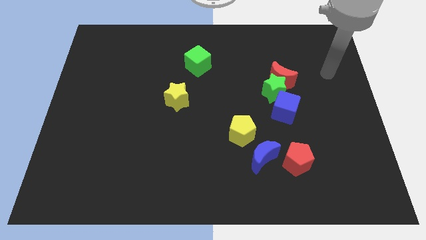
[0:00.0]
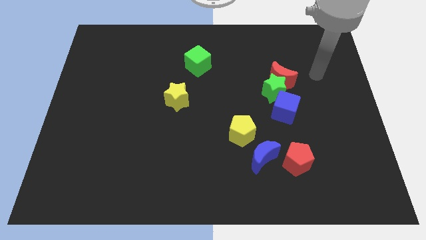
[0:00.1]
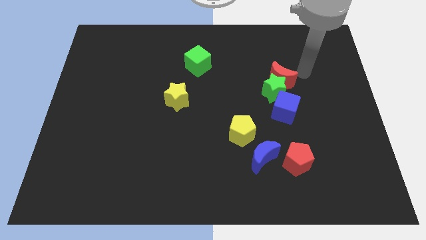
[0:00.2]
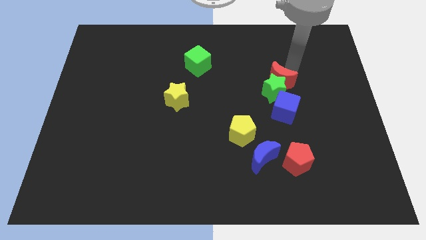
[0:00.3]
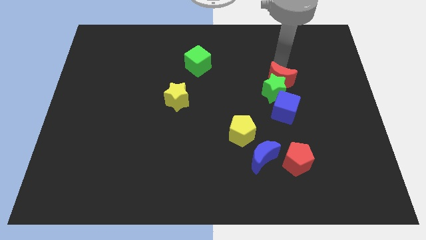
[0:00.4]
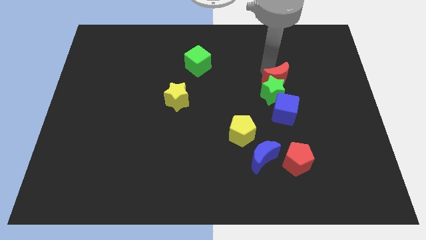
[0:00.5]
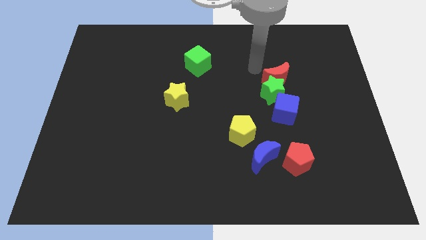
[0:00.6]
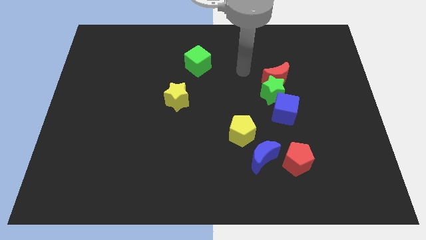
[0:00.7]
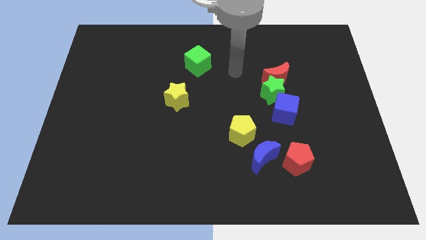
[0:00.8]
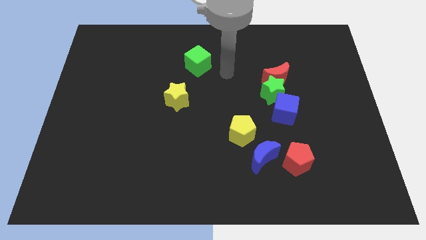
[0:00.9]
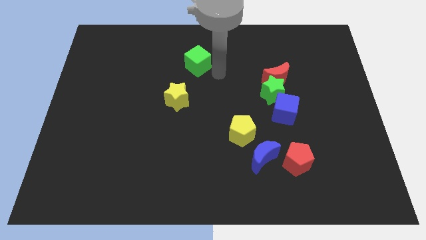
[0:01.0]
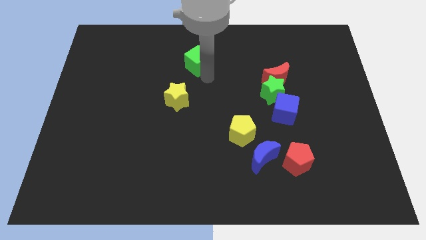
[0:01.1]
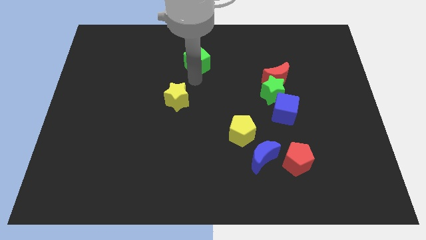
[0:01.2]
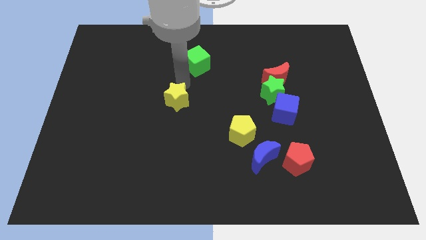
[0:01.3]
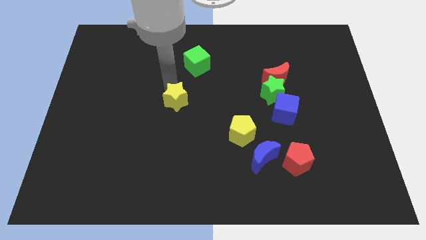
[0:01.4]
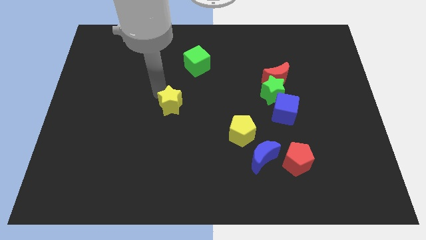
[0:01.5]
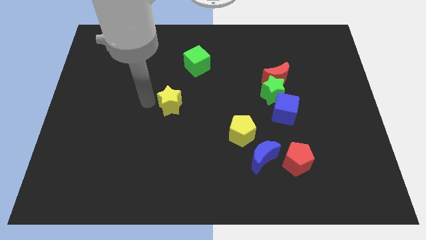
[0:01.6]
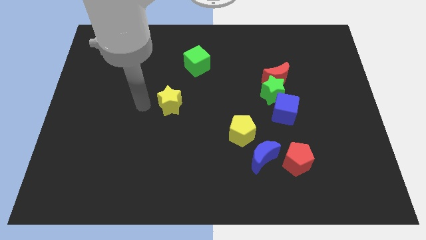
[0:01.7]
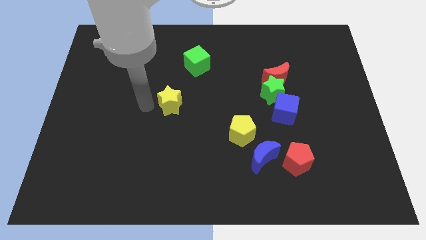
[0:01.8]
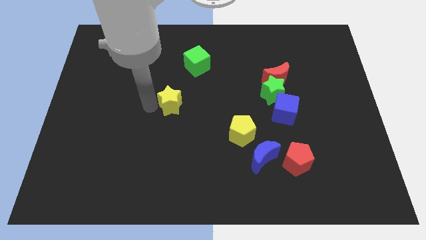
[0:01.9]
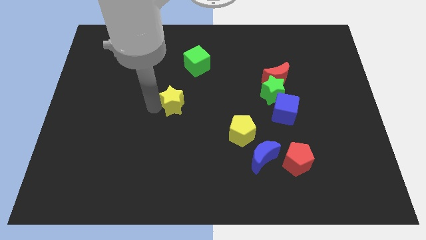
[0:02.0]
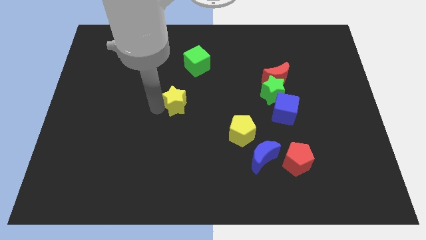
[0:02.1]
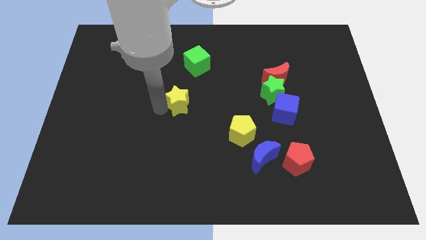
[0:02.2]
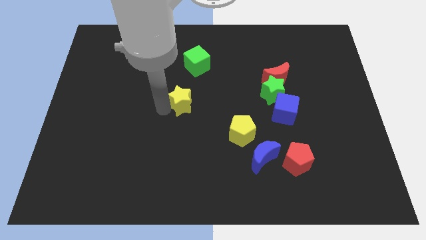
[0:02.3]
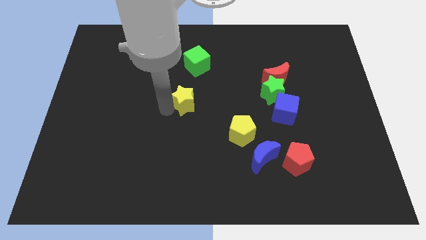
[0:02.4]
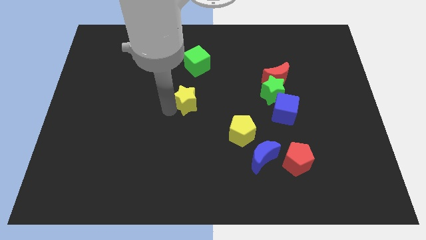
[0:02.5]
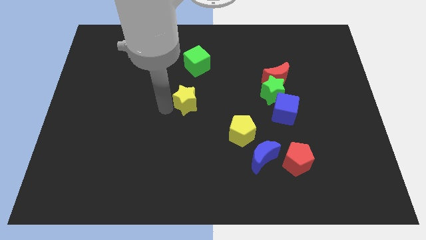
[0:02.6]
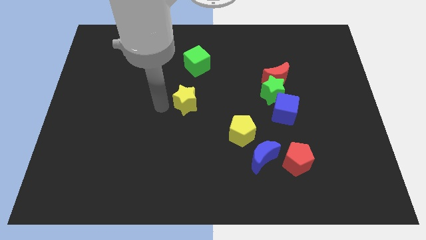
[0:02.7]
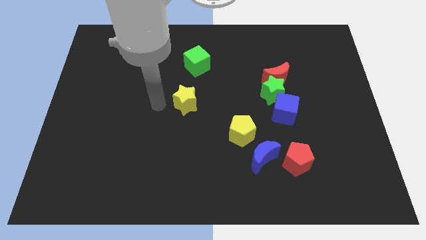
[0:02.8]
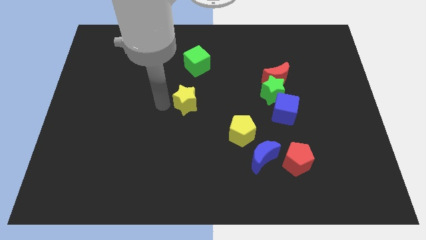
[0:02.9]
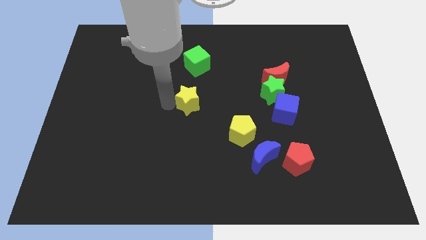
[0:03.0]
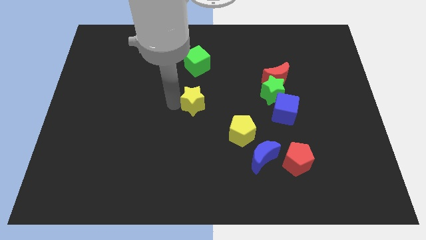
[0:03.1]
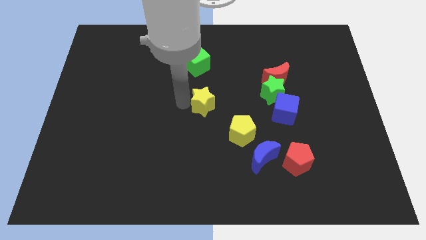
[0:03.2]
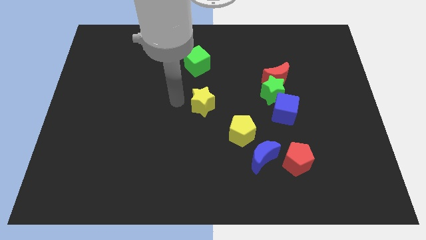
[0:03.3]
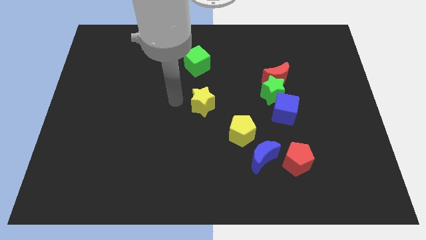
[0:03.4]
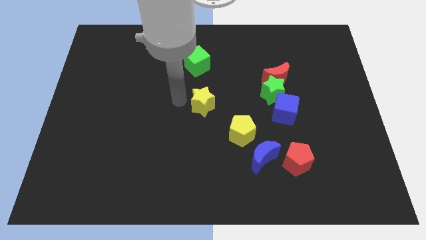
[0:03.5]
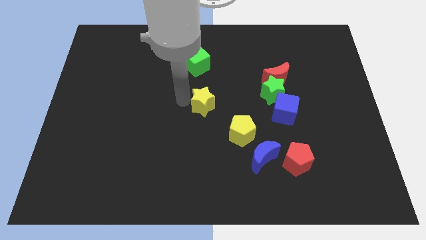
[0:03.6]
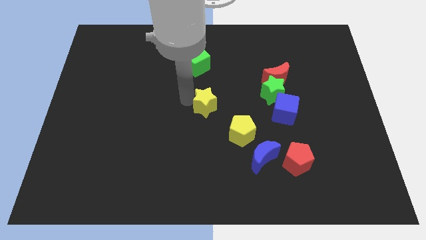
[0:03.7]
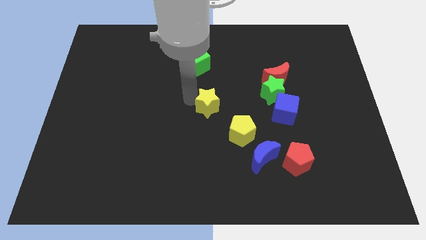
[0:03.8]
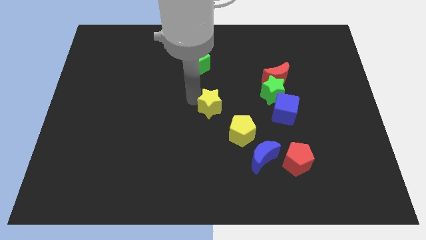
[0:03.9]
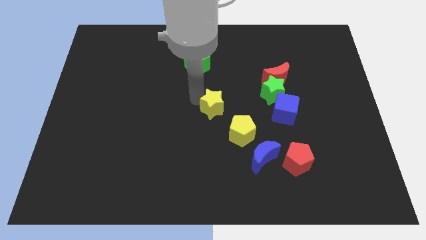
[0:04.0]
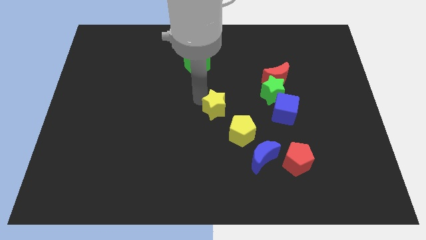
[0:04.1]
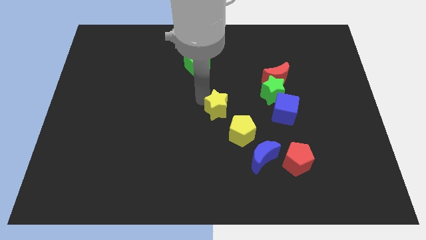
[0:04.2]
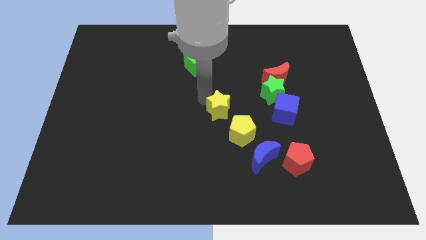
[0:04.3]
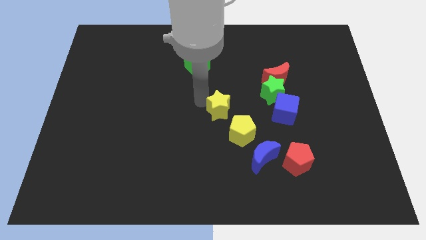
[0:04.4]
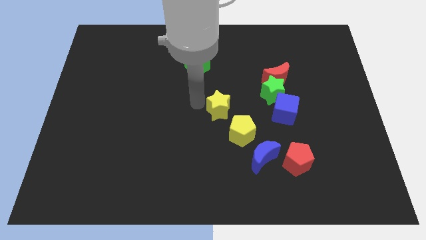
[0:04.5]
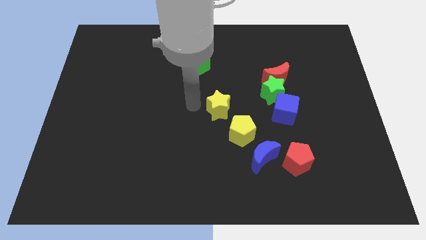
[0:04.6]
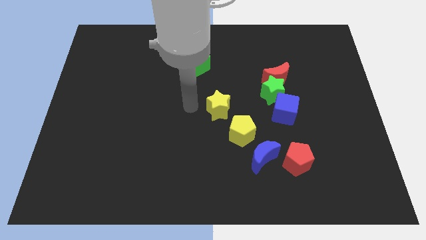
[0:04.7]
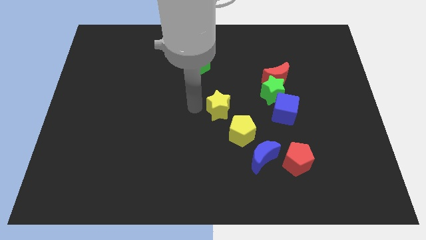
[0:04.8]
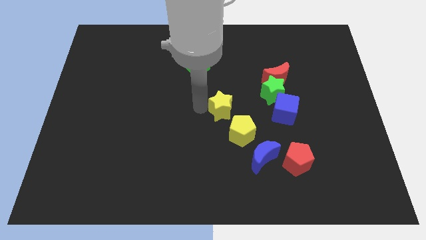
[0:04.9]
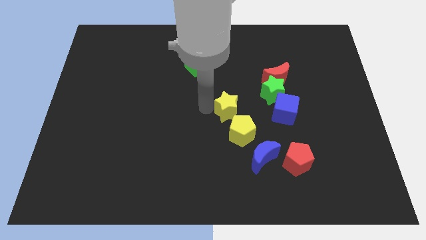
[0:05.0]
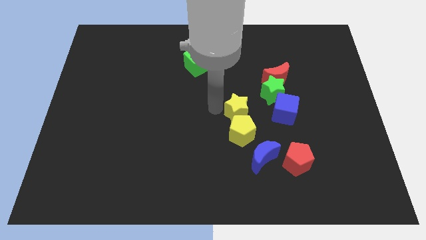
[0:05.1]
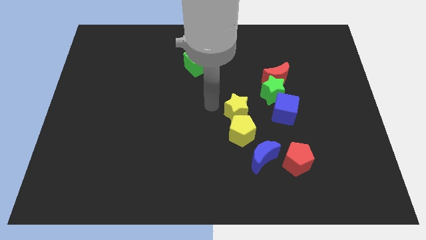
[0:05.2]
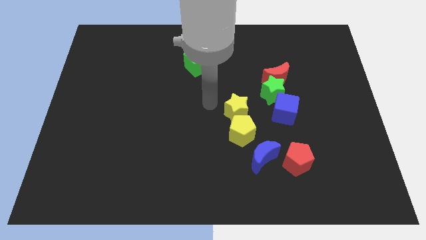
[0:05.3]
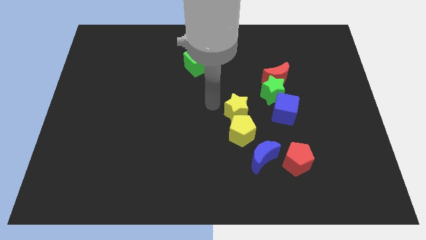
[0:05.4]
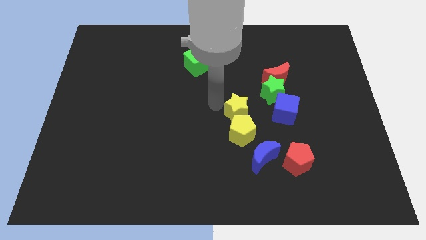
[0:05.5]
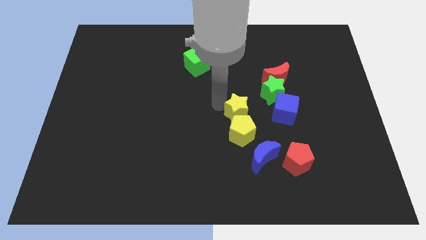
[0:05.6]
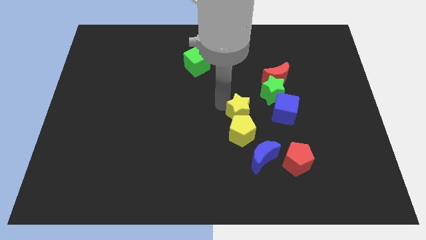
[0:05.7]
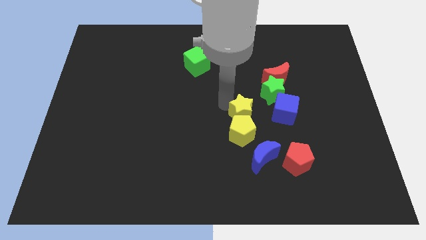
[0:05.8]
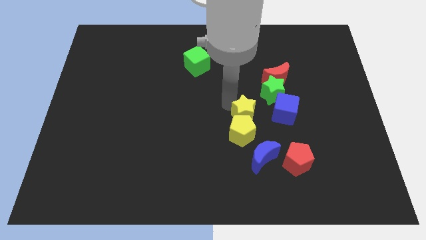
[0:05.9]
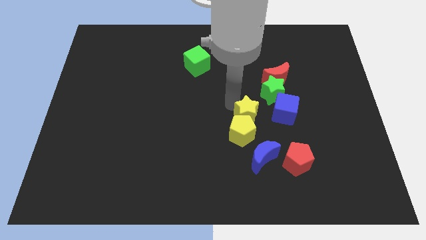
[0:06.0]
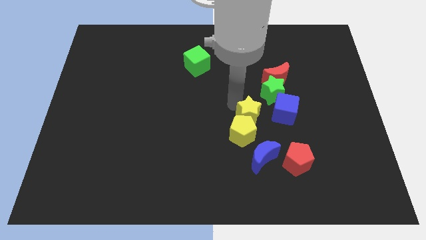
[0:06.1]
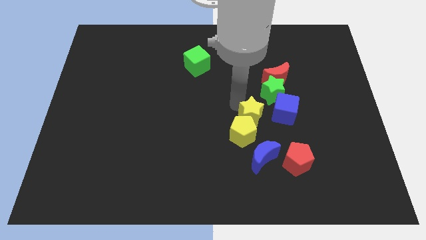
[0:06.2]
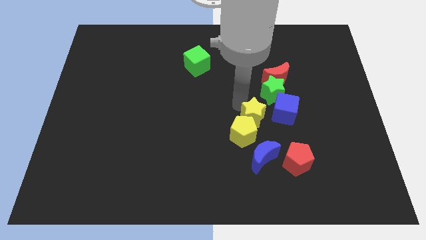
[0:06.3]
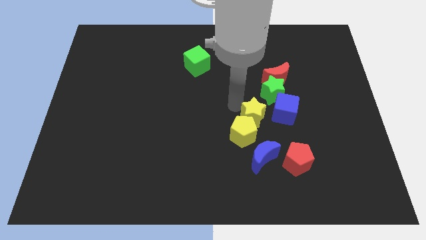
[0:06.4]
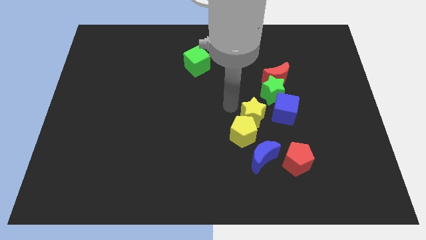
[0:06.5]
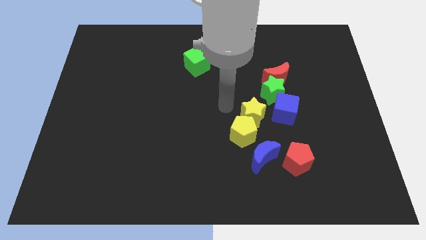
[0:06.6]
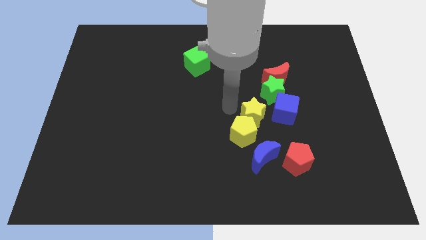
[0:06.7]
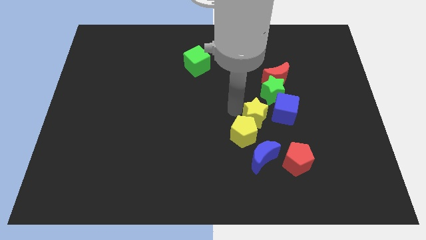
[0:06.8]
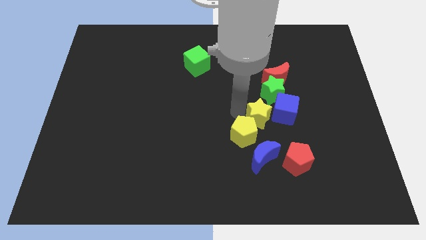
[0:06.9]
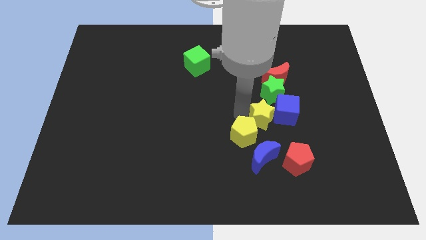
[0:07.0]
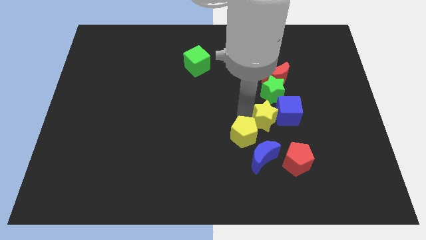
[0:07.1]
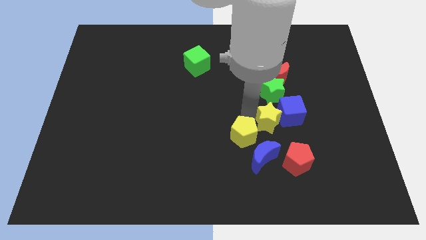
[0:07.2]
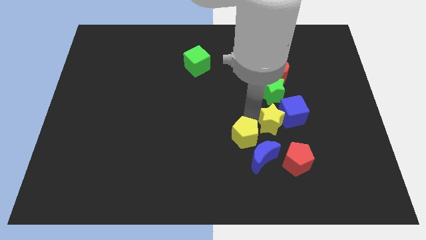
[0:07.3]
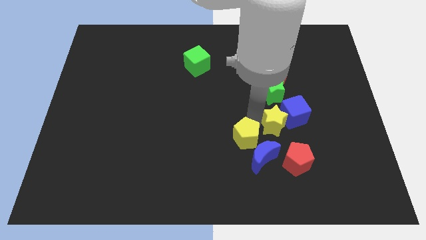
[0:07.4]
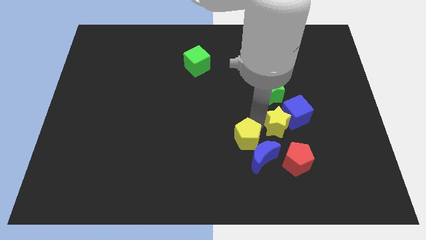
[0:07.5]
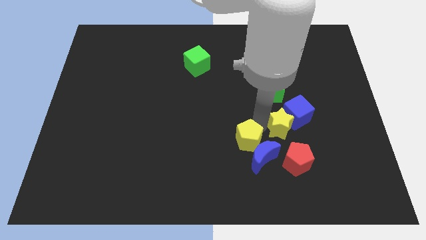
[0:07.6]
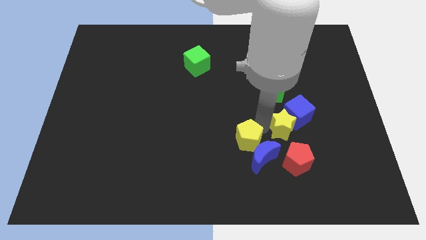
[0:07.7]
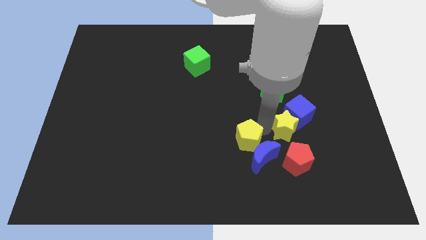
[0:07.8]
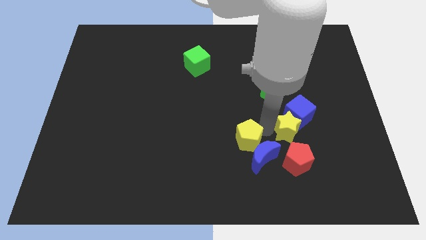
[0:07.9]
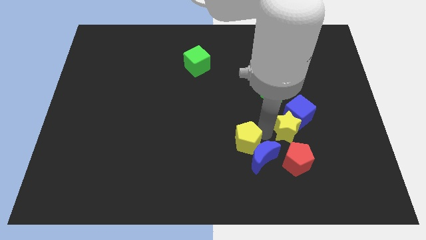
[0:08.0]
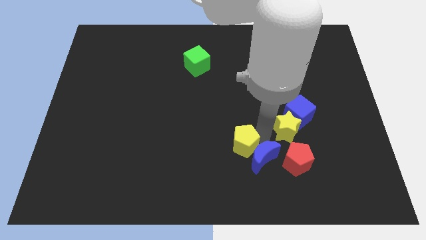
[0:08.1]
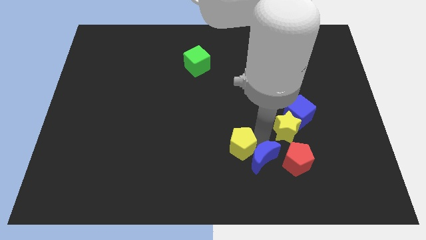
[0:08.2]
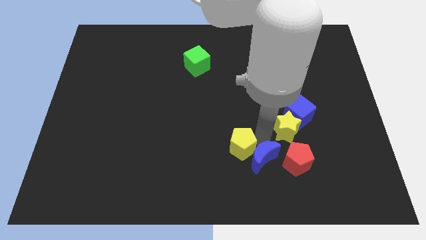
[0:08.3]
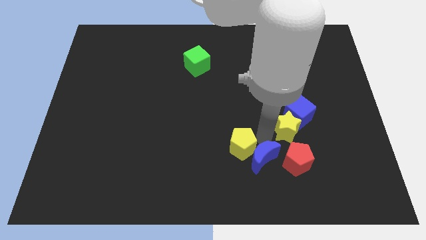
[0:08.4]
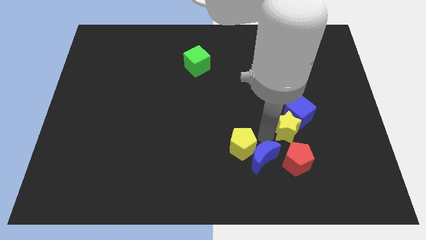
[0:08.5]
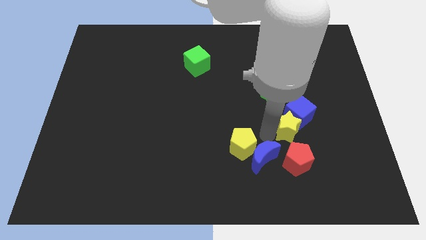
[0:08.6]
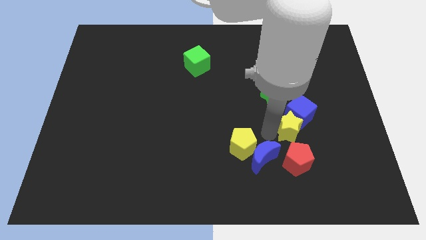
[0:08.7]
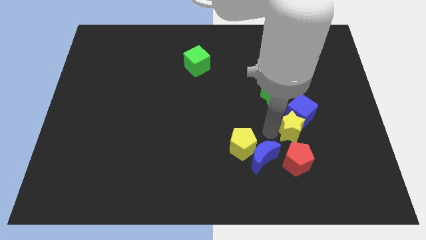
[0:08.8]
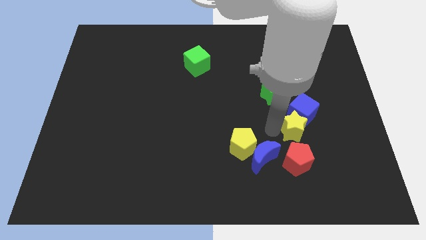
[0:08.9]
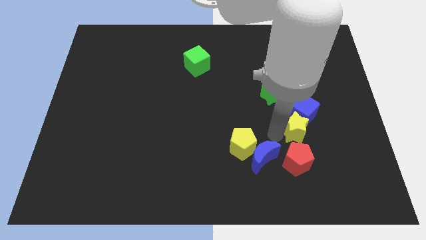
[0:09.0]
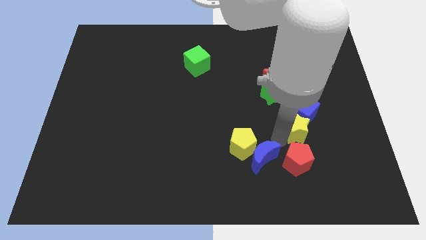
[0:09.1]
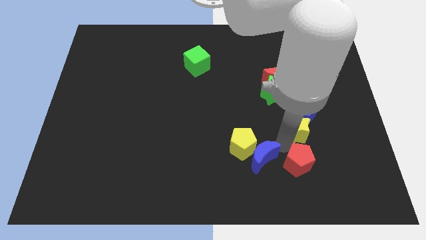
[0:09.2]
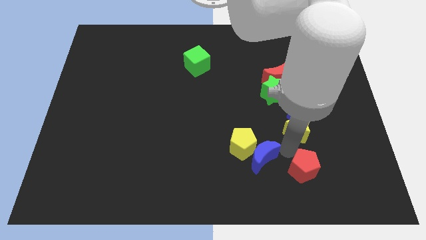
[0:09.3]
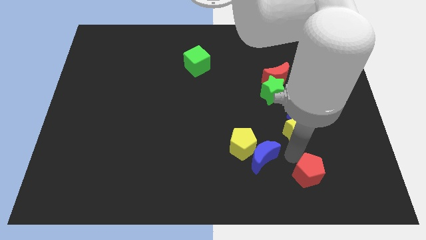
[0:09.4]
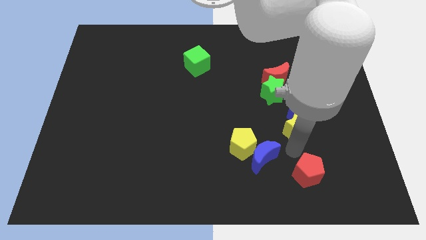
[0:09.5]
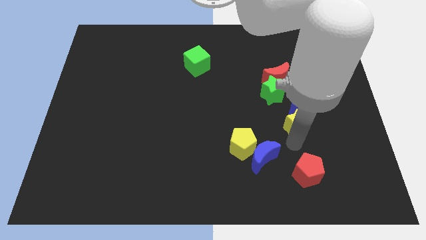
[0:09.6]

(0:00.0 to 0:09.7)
push the yellow star to the bottom right side of the green star
